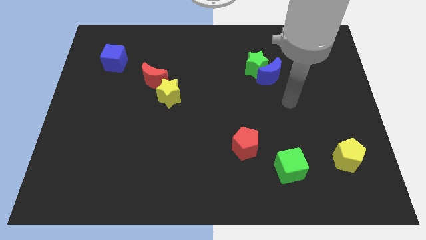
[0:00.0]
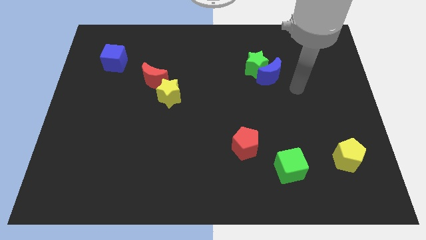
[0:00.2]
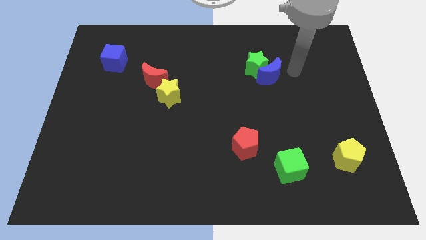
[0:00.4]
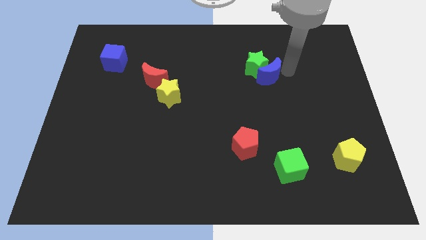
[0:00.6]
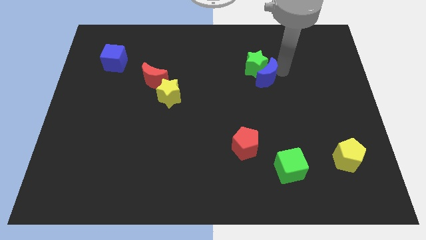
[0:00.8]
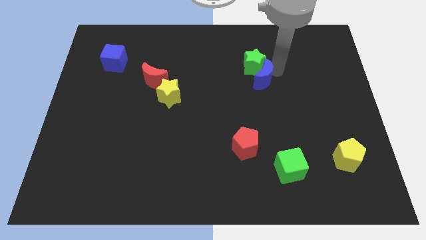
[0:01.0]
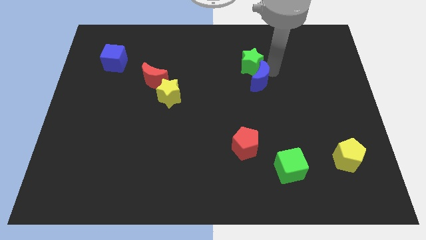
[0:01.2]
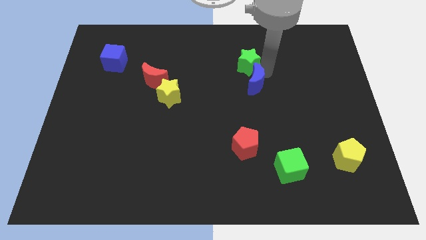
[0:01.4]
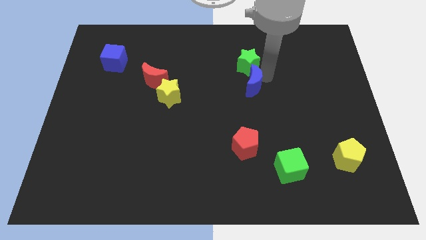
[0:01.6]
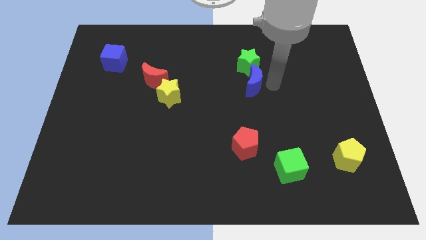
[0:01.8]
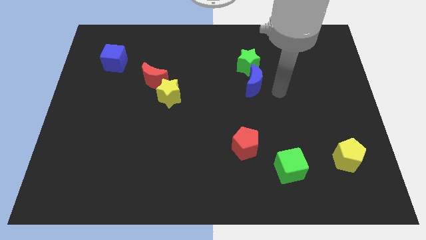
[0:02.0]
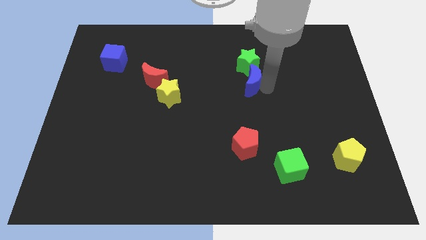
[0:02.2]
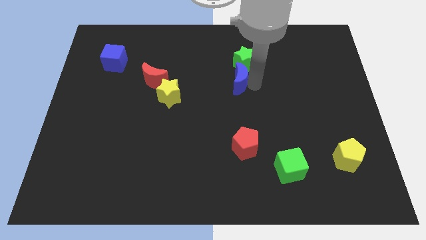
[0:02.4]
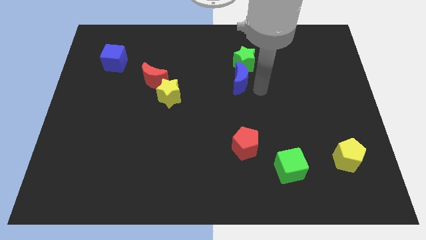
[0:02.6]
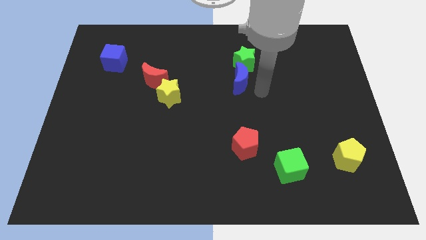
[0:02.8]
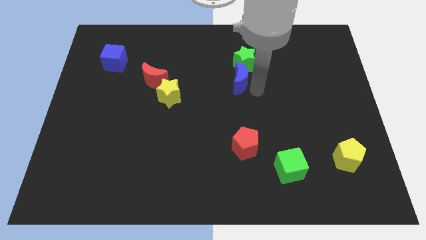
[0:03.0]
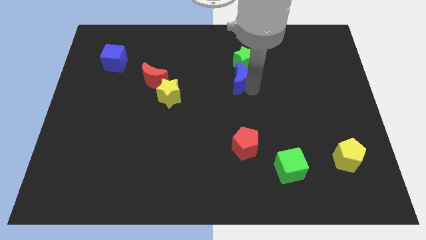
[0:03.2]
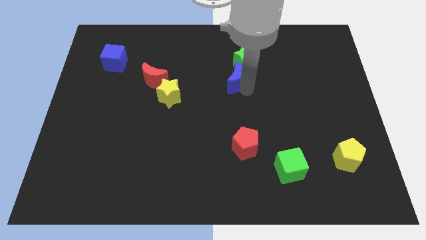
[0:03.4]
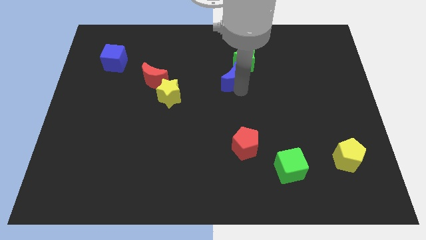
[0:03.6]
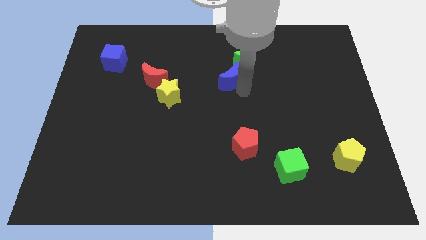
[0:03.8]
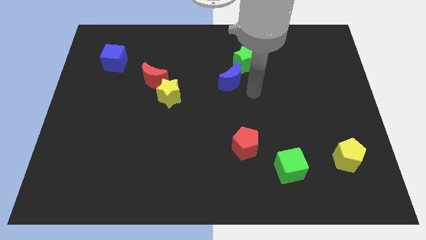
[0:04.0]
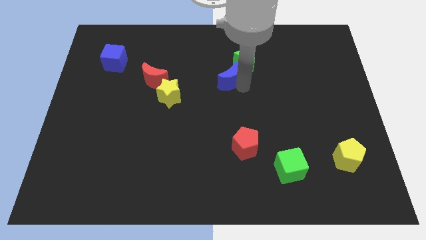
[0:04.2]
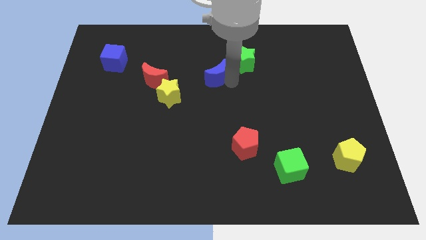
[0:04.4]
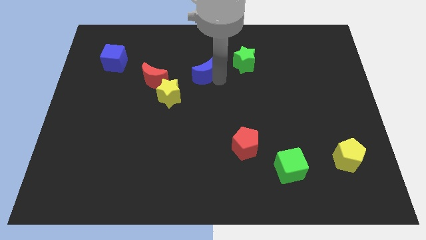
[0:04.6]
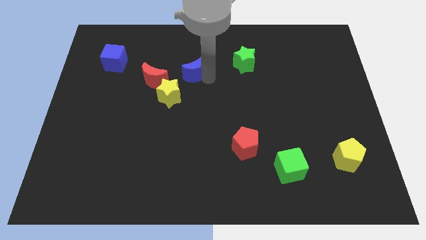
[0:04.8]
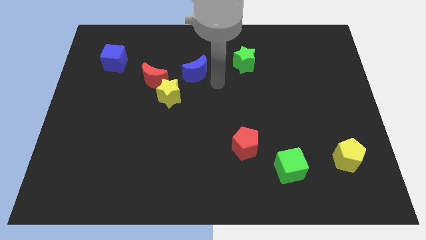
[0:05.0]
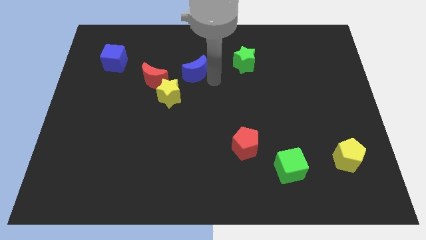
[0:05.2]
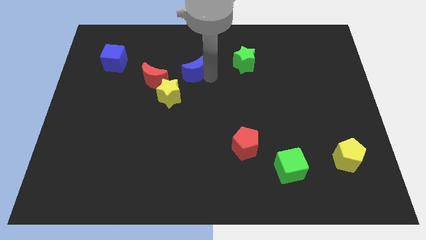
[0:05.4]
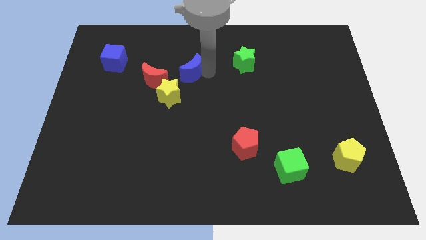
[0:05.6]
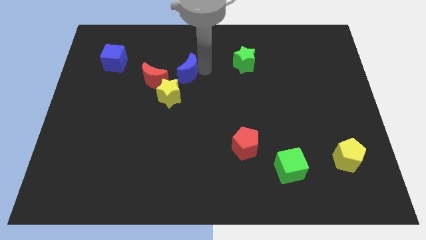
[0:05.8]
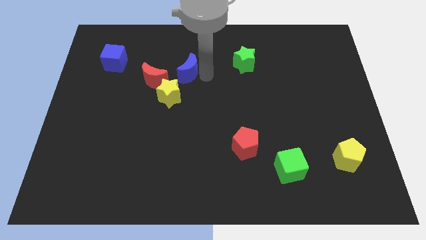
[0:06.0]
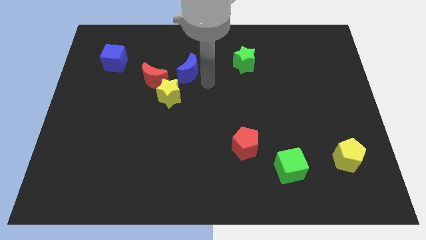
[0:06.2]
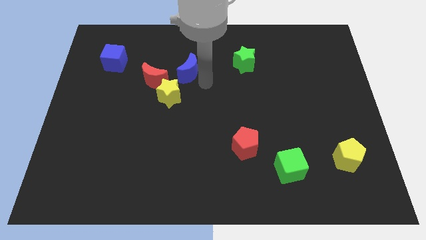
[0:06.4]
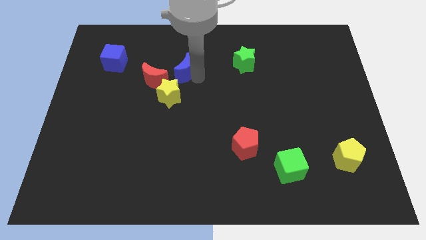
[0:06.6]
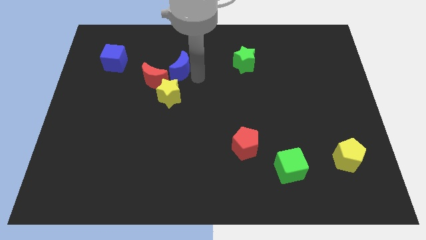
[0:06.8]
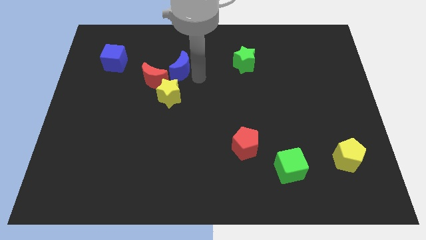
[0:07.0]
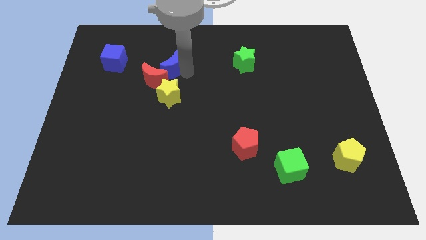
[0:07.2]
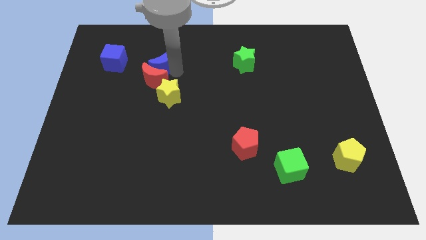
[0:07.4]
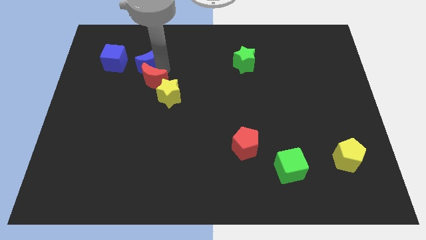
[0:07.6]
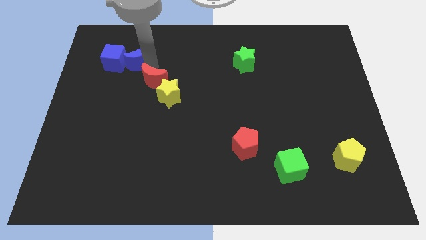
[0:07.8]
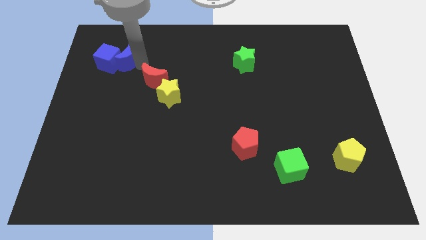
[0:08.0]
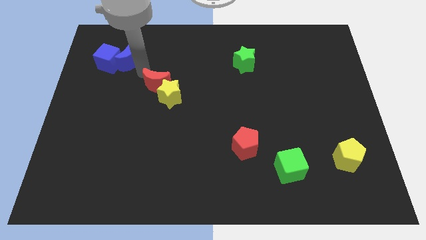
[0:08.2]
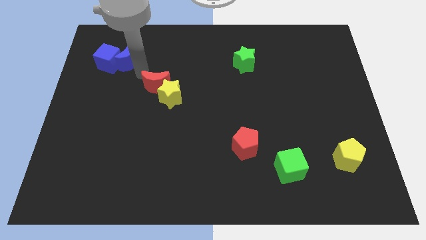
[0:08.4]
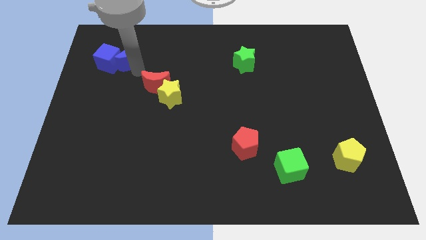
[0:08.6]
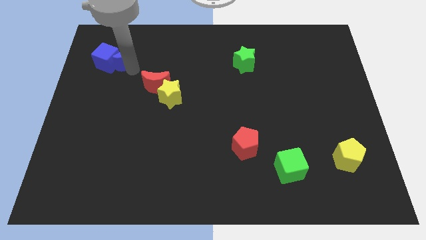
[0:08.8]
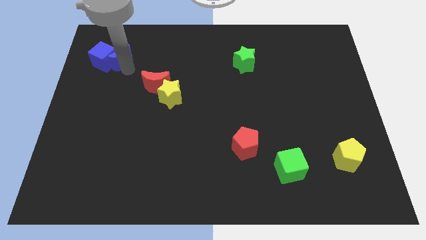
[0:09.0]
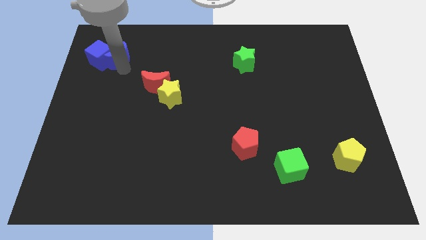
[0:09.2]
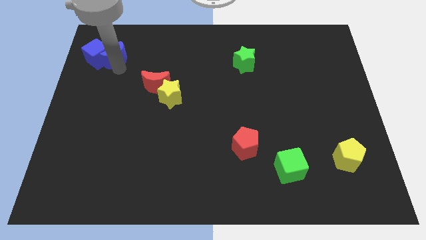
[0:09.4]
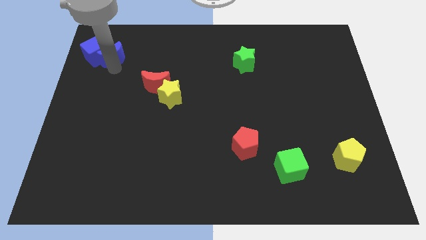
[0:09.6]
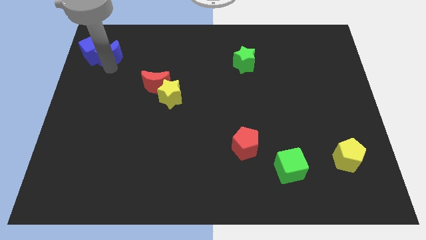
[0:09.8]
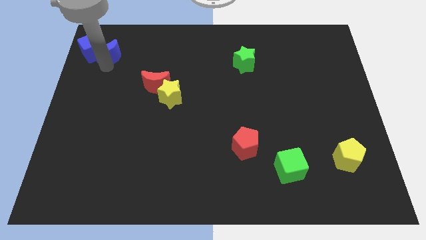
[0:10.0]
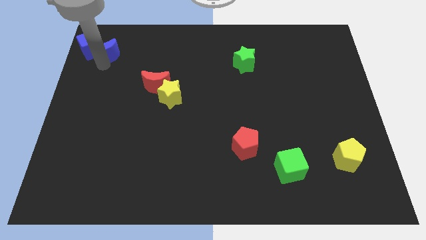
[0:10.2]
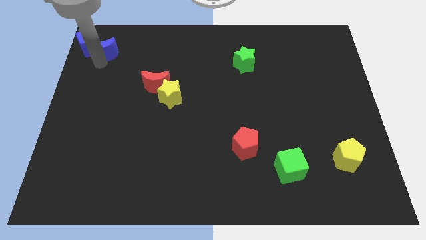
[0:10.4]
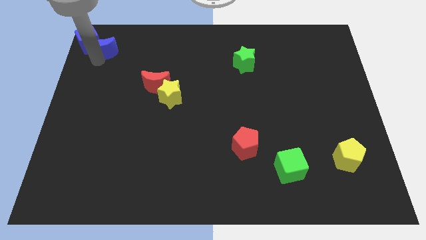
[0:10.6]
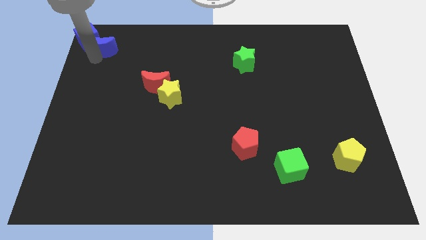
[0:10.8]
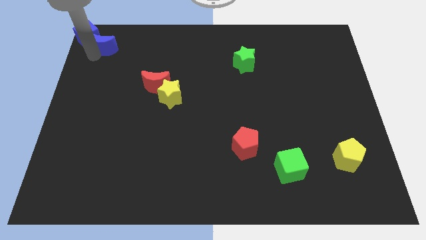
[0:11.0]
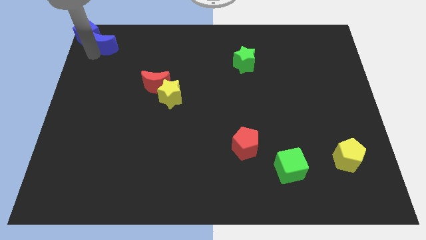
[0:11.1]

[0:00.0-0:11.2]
put the blue moon to the upper left corner

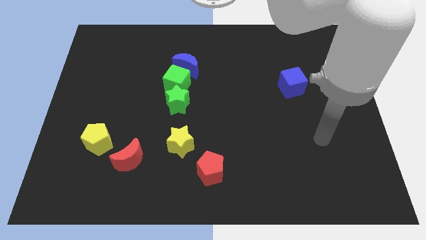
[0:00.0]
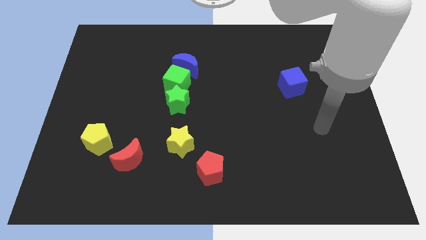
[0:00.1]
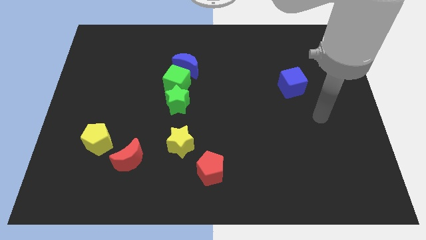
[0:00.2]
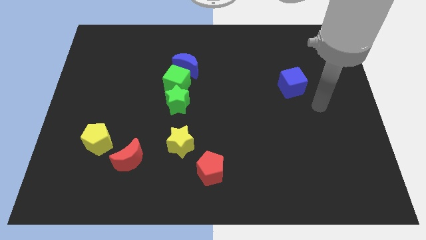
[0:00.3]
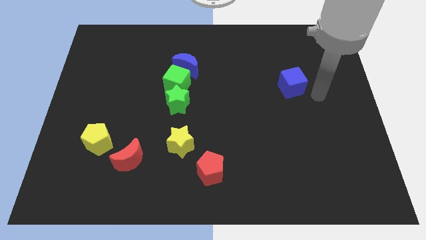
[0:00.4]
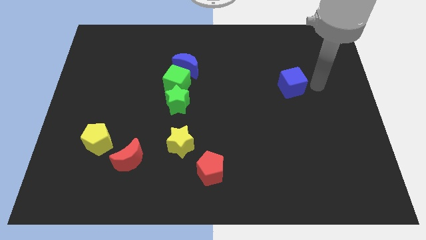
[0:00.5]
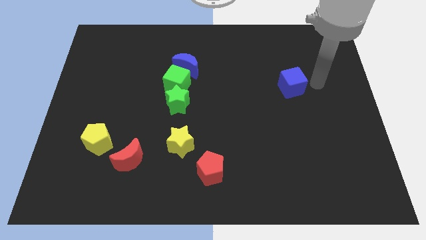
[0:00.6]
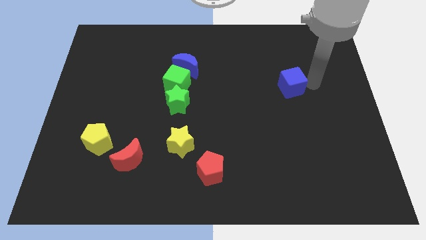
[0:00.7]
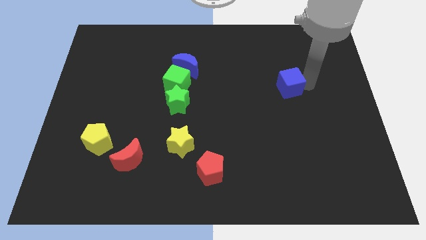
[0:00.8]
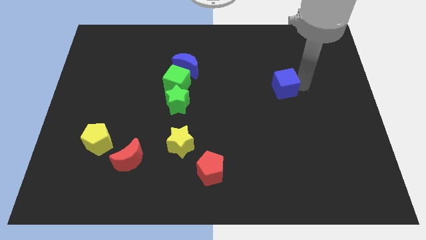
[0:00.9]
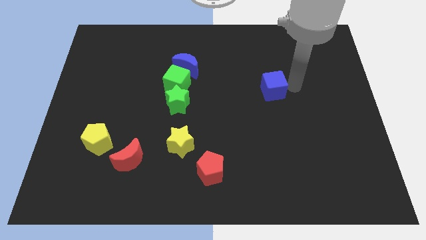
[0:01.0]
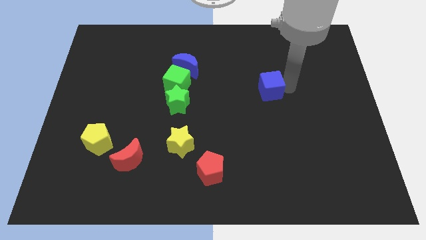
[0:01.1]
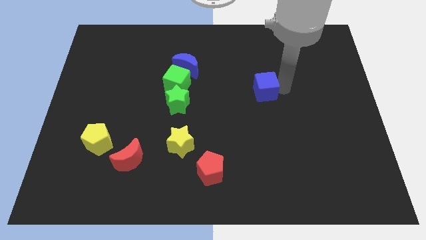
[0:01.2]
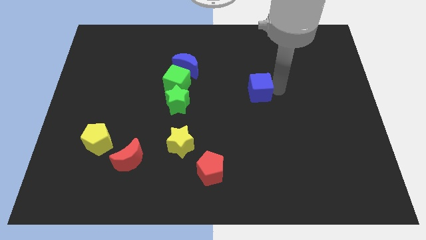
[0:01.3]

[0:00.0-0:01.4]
move the blue cube to the center of the board
